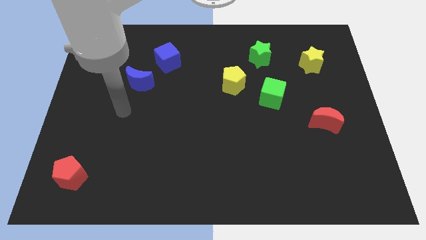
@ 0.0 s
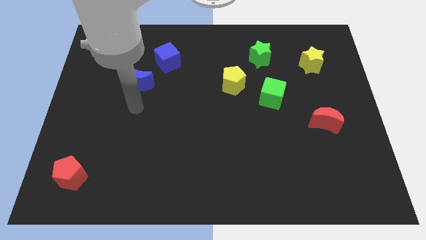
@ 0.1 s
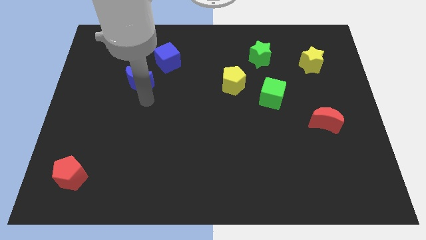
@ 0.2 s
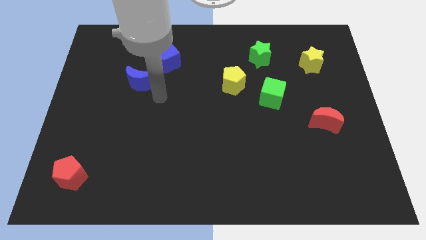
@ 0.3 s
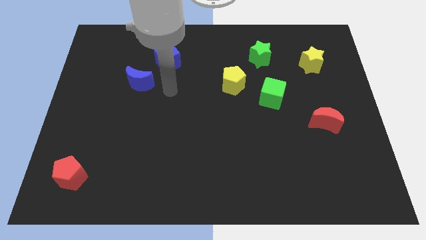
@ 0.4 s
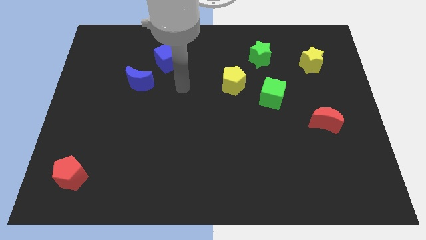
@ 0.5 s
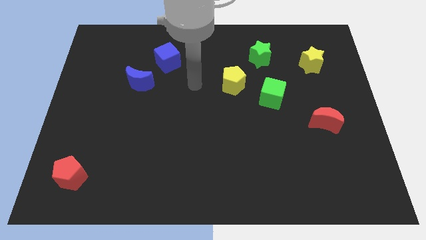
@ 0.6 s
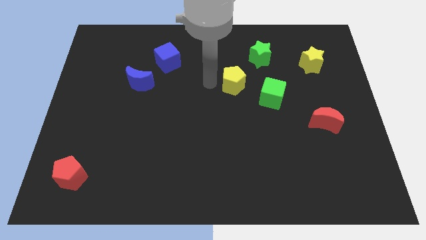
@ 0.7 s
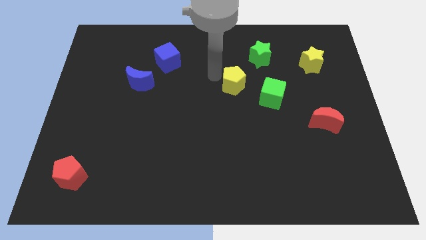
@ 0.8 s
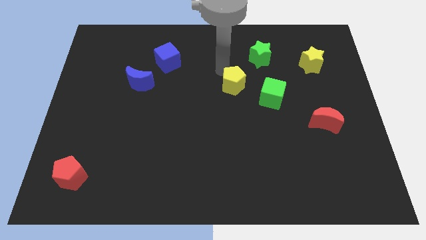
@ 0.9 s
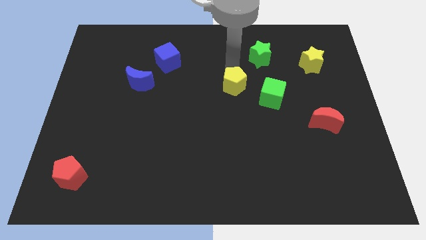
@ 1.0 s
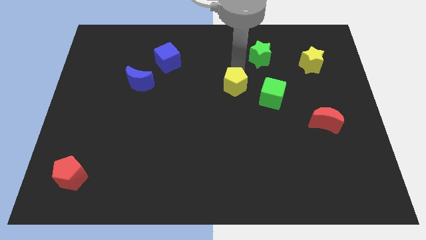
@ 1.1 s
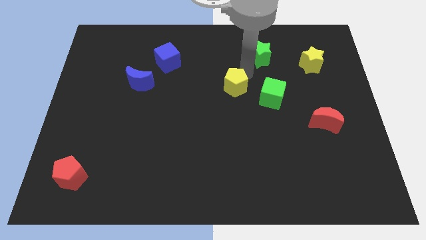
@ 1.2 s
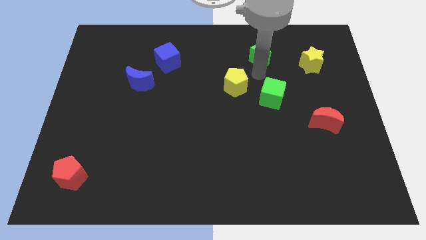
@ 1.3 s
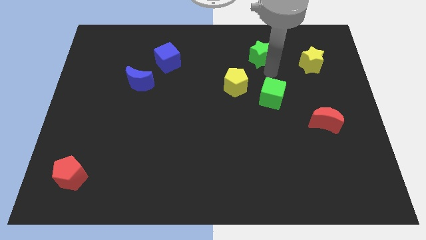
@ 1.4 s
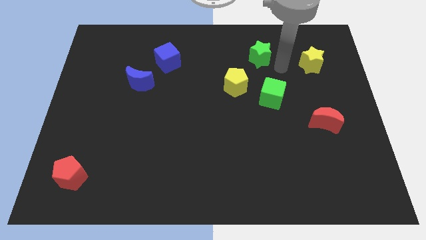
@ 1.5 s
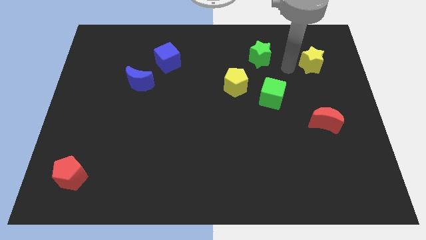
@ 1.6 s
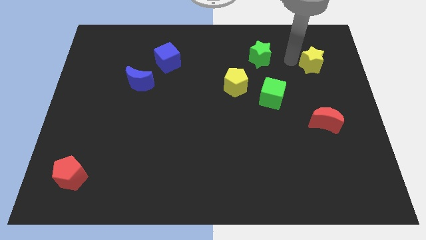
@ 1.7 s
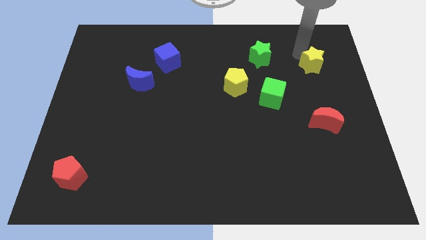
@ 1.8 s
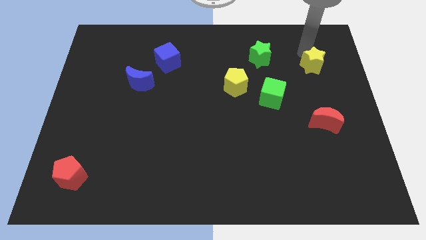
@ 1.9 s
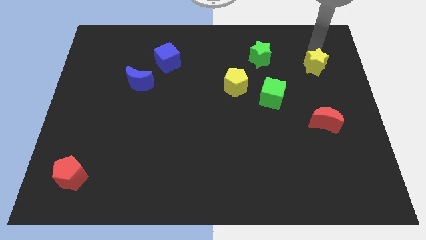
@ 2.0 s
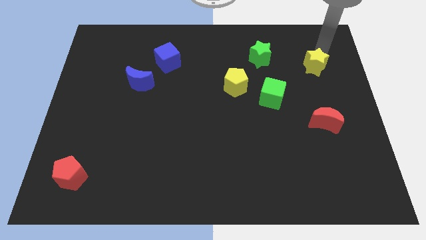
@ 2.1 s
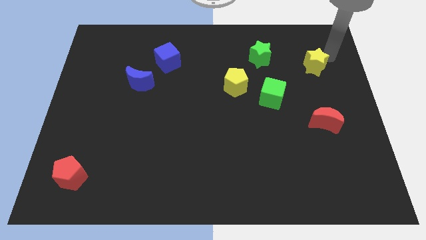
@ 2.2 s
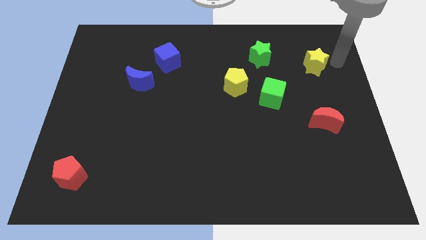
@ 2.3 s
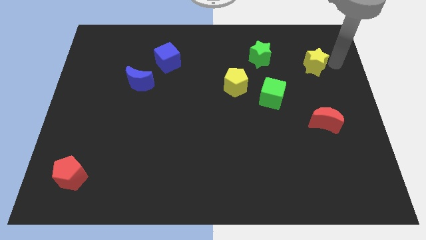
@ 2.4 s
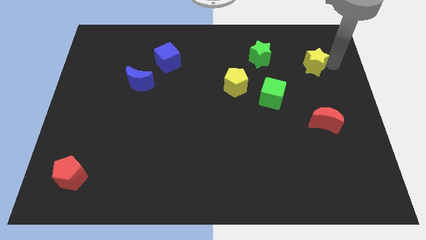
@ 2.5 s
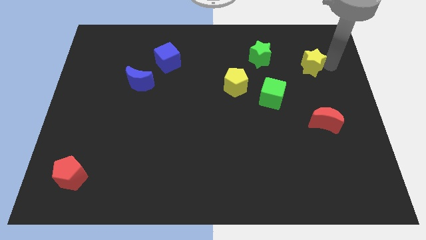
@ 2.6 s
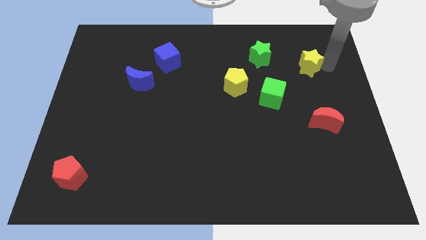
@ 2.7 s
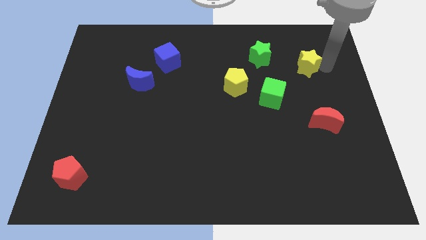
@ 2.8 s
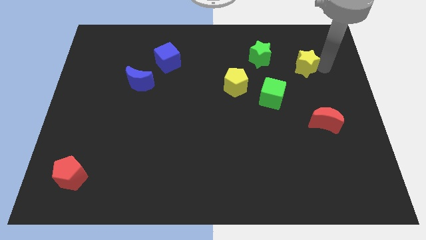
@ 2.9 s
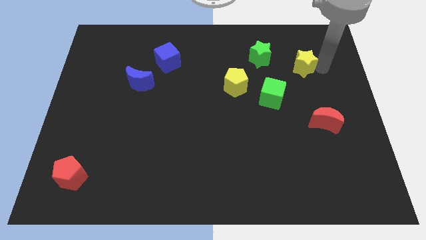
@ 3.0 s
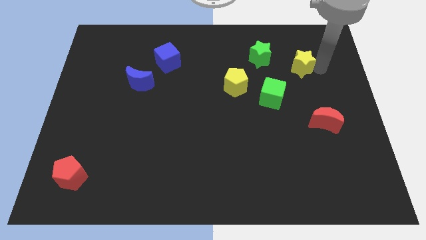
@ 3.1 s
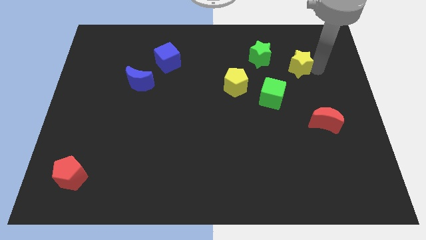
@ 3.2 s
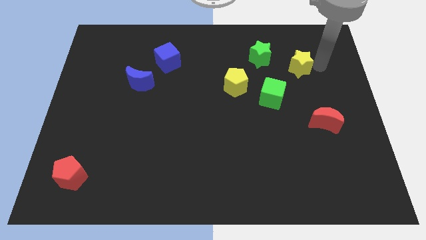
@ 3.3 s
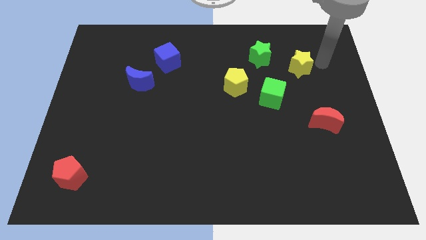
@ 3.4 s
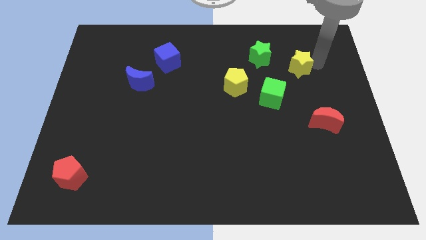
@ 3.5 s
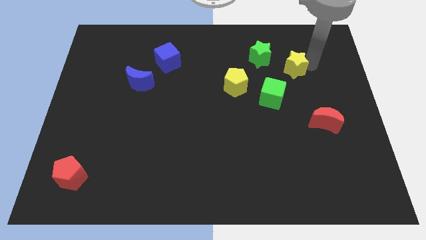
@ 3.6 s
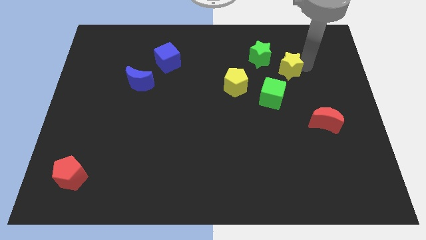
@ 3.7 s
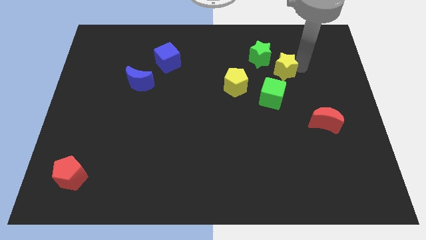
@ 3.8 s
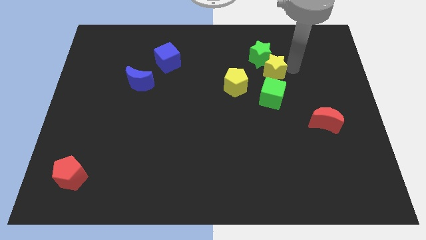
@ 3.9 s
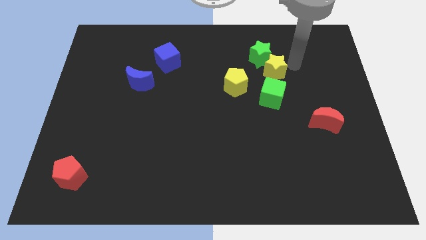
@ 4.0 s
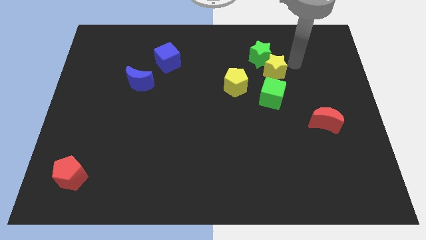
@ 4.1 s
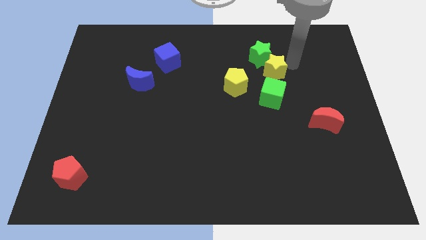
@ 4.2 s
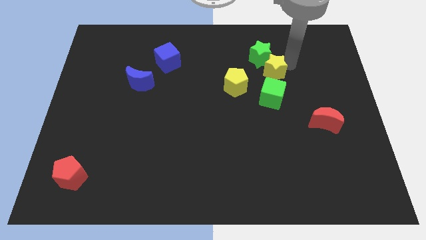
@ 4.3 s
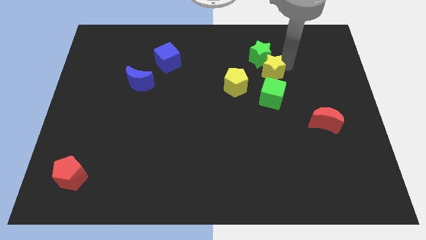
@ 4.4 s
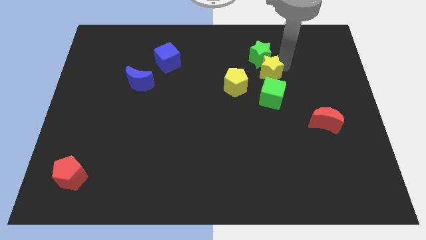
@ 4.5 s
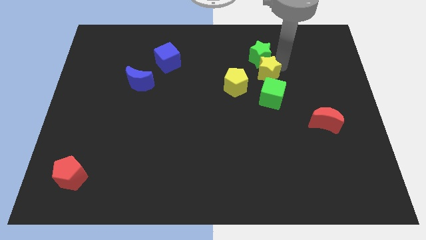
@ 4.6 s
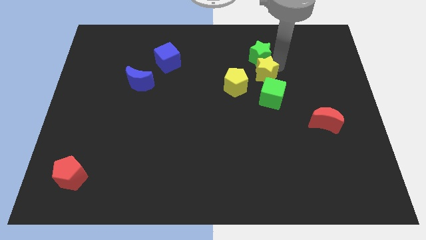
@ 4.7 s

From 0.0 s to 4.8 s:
put the yellow star diagonally up and to the left of the green cube

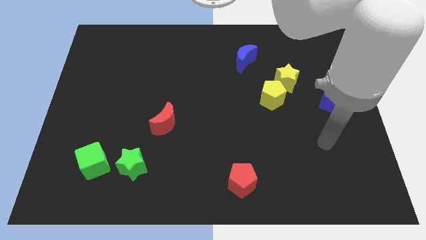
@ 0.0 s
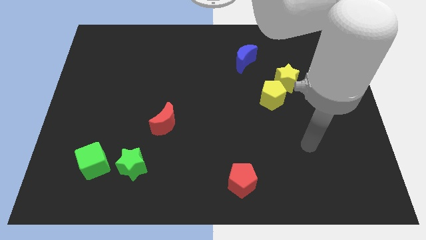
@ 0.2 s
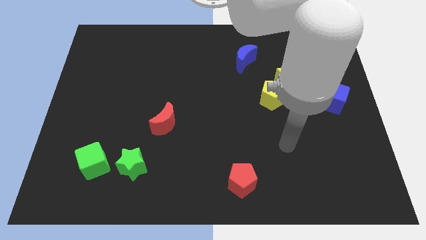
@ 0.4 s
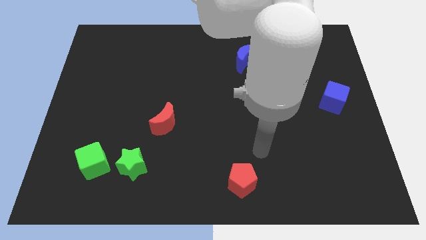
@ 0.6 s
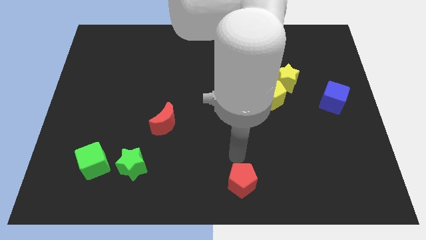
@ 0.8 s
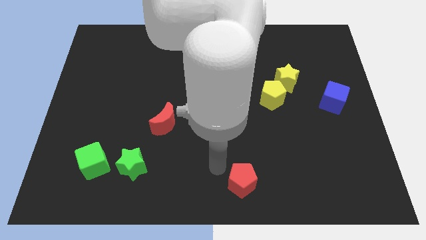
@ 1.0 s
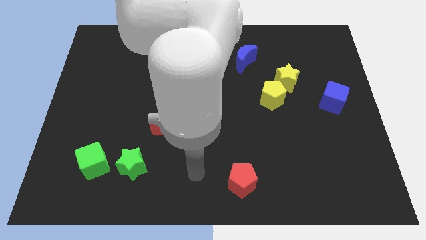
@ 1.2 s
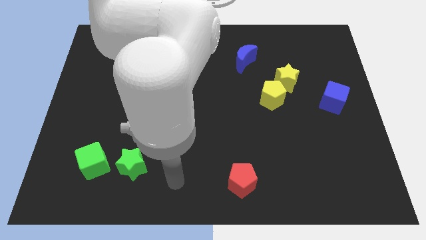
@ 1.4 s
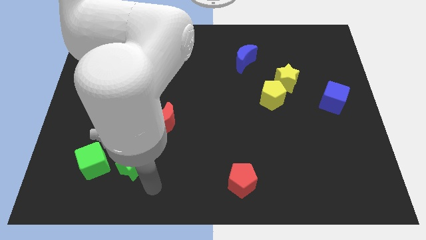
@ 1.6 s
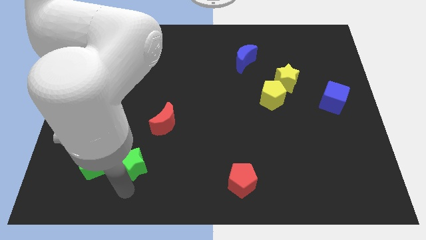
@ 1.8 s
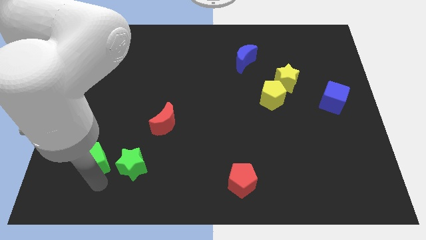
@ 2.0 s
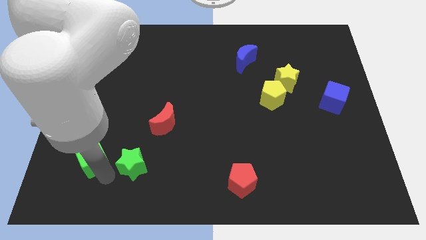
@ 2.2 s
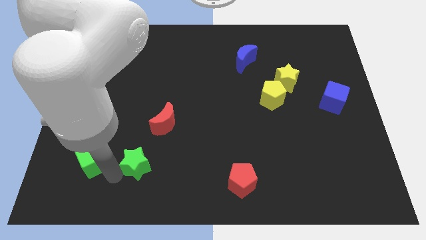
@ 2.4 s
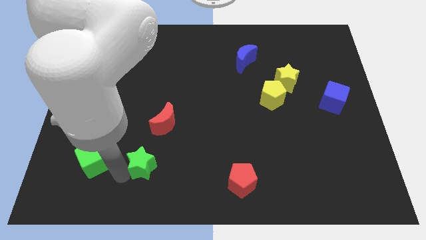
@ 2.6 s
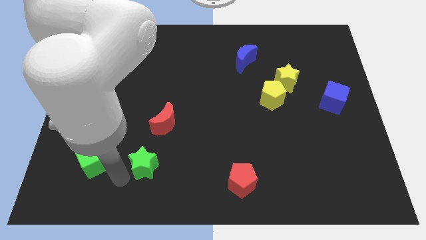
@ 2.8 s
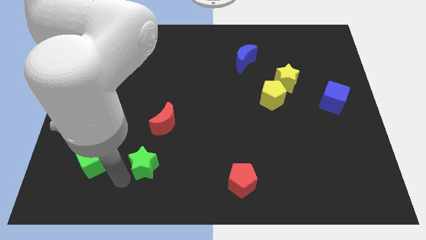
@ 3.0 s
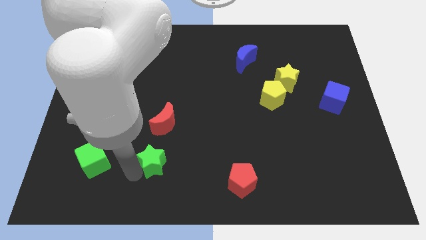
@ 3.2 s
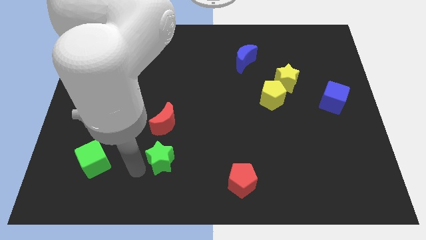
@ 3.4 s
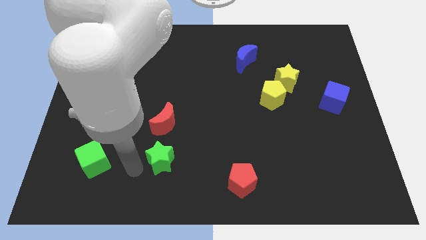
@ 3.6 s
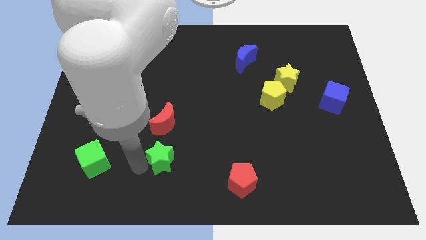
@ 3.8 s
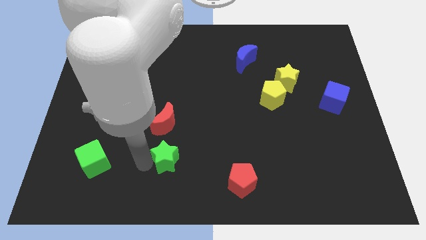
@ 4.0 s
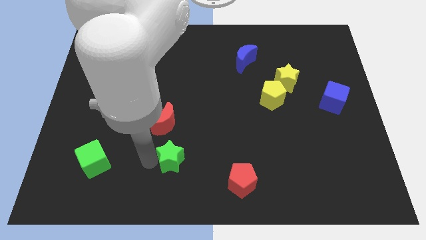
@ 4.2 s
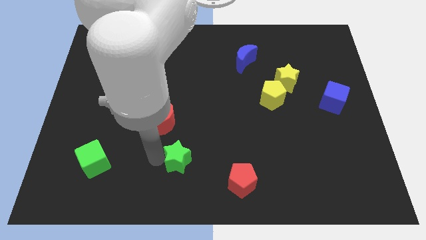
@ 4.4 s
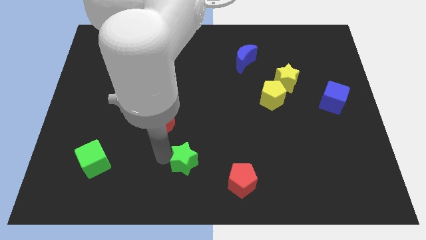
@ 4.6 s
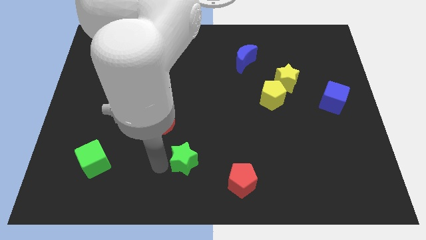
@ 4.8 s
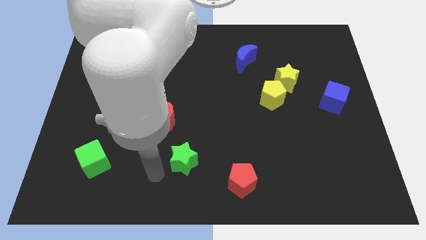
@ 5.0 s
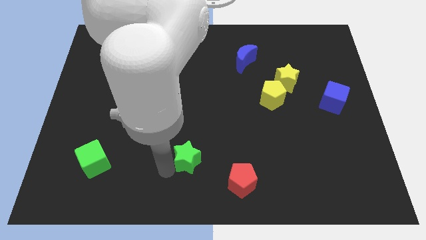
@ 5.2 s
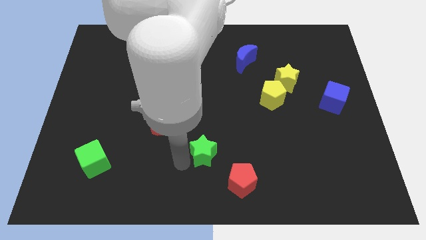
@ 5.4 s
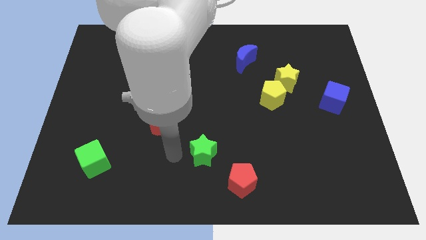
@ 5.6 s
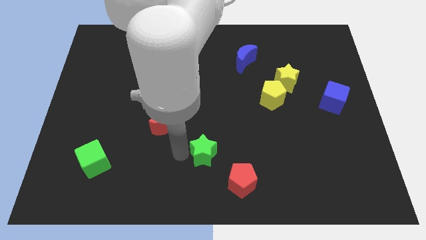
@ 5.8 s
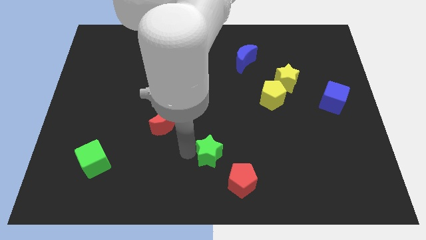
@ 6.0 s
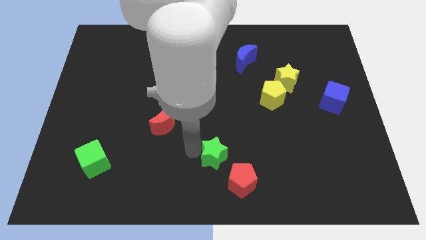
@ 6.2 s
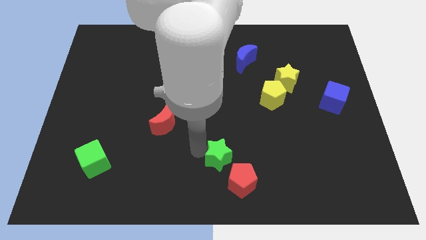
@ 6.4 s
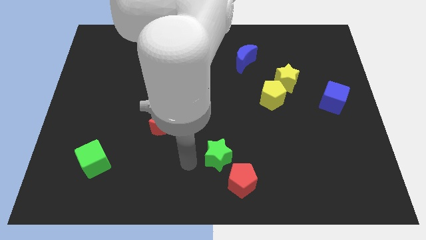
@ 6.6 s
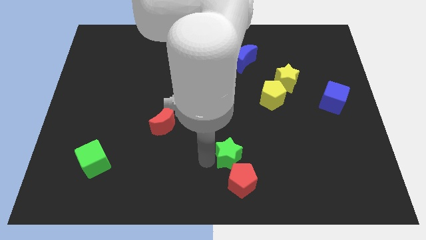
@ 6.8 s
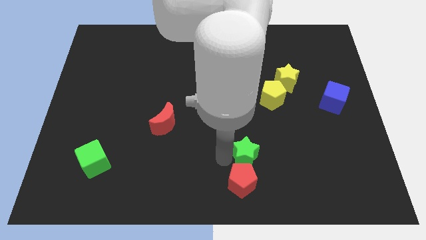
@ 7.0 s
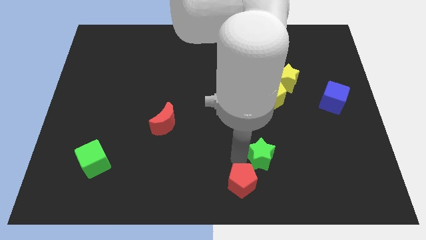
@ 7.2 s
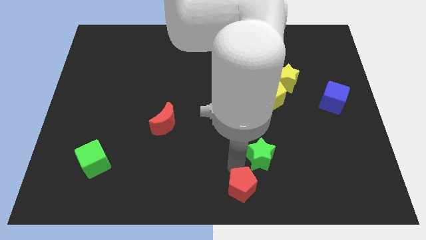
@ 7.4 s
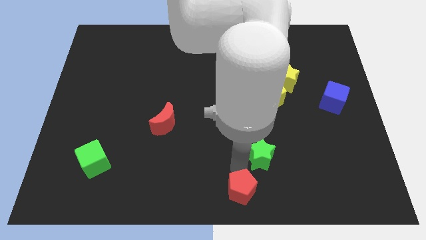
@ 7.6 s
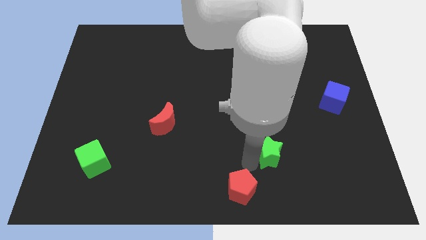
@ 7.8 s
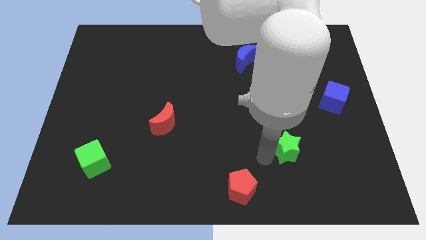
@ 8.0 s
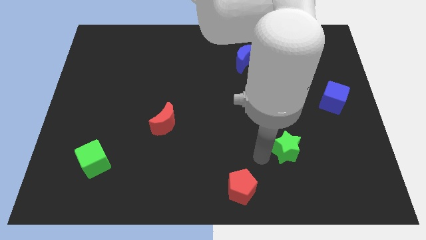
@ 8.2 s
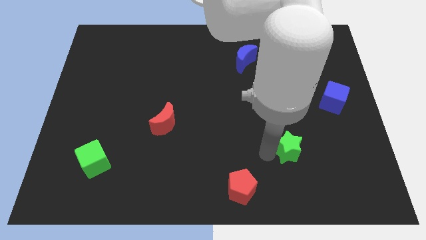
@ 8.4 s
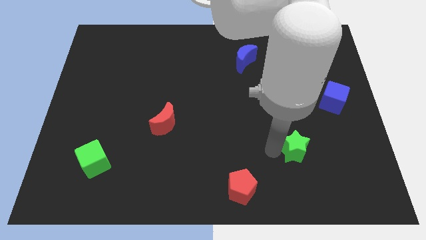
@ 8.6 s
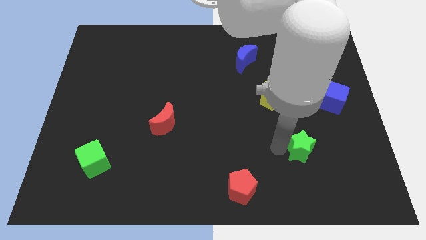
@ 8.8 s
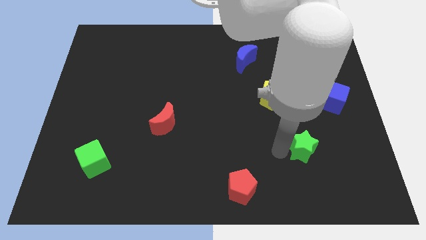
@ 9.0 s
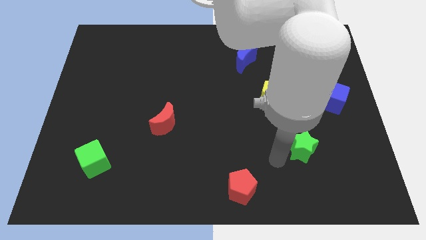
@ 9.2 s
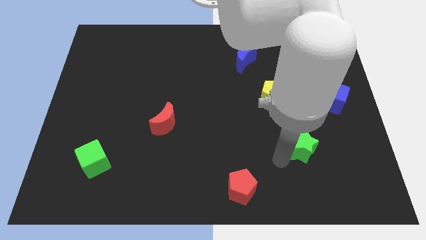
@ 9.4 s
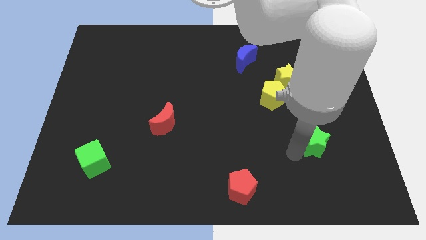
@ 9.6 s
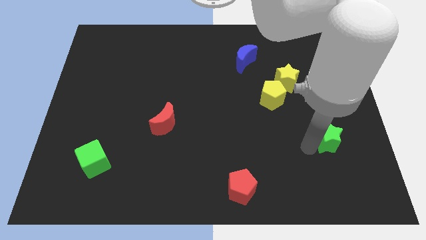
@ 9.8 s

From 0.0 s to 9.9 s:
slide the green star to the bottom of the blue cube
